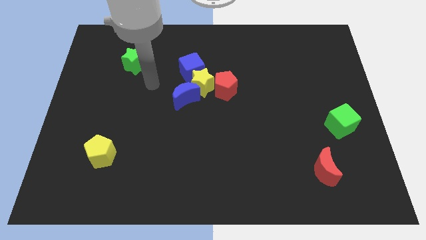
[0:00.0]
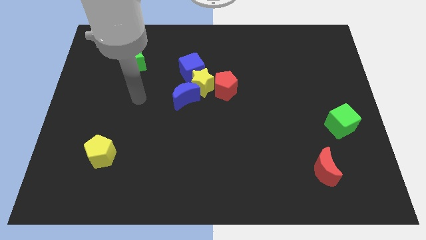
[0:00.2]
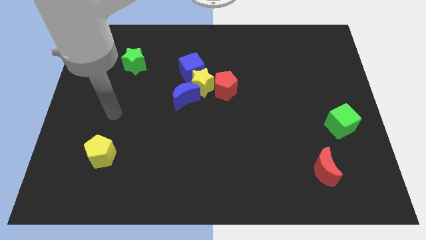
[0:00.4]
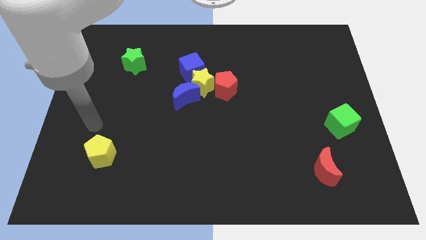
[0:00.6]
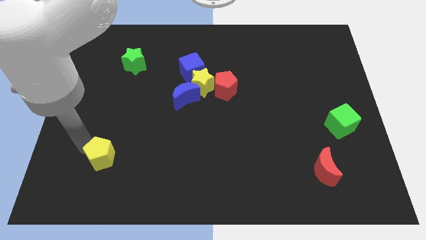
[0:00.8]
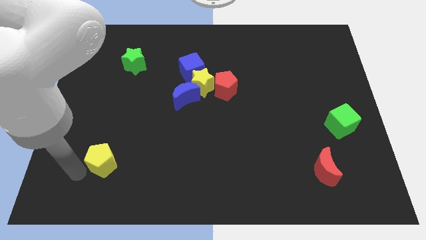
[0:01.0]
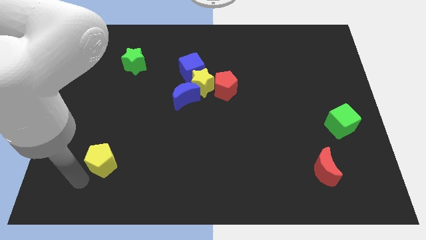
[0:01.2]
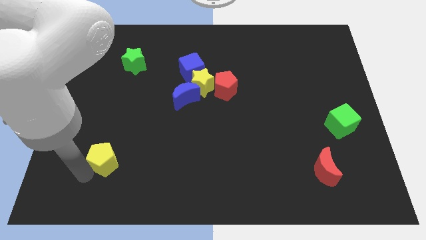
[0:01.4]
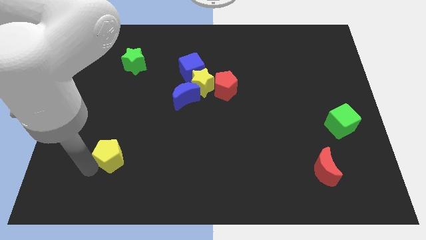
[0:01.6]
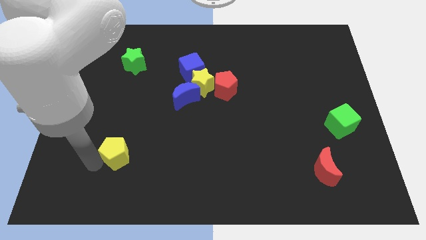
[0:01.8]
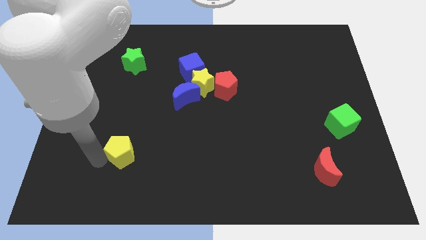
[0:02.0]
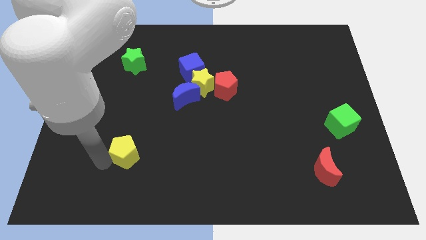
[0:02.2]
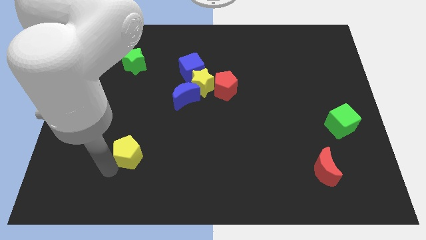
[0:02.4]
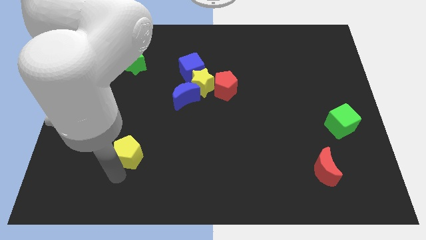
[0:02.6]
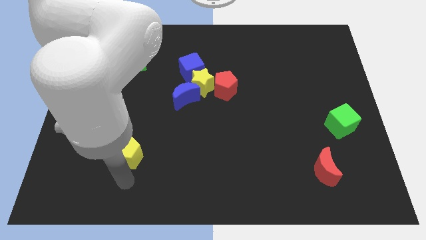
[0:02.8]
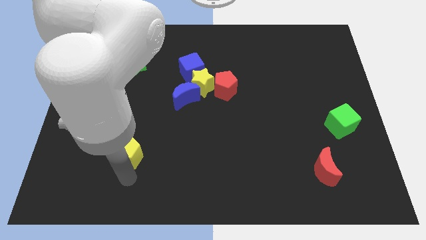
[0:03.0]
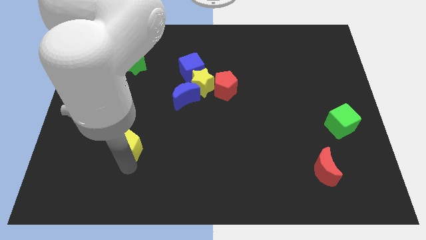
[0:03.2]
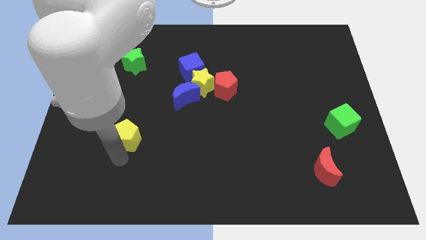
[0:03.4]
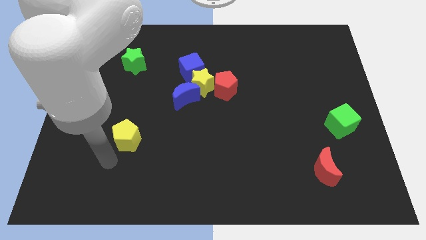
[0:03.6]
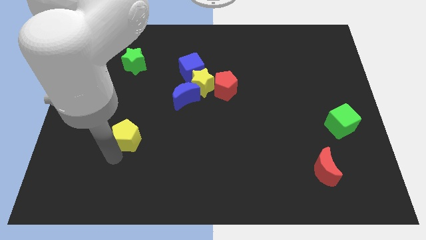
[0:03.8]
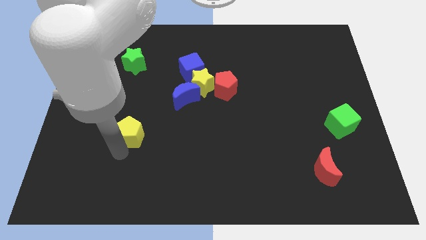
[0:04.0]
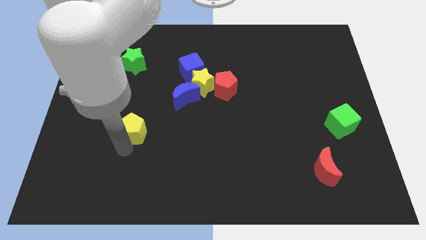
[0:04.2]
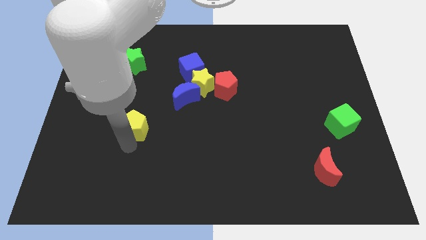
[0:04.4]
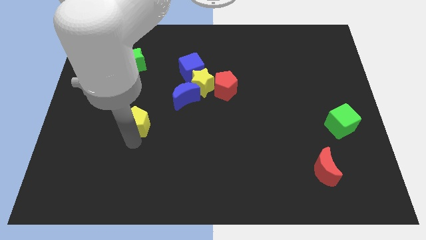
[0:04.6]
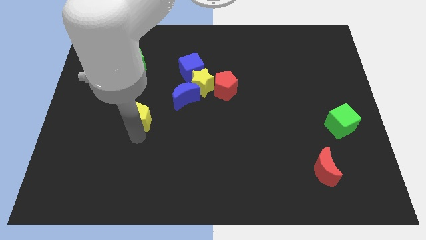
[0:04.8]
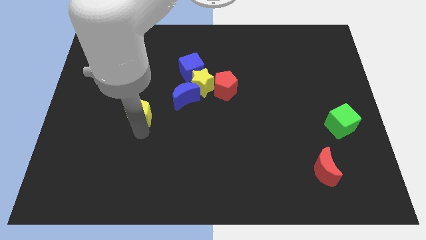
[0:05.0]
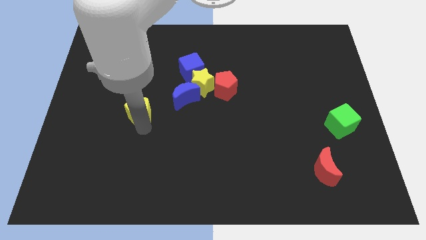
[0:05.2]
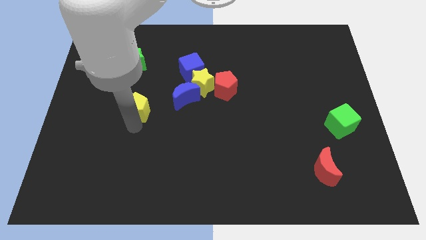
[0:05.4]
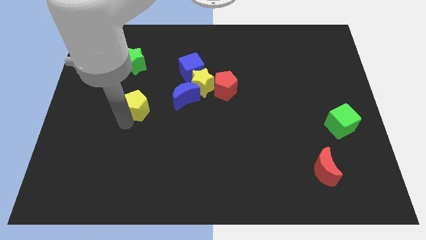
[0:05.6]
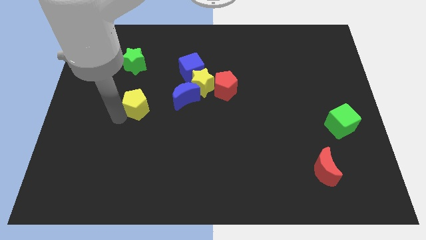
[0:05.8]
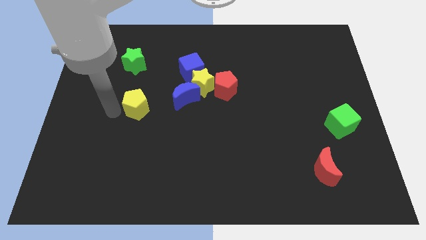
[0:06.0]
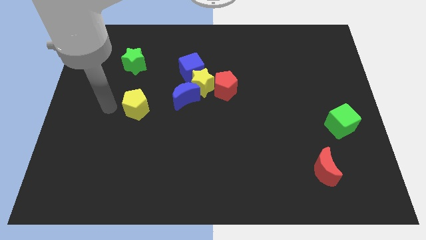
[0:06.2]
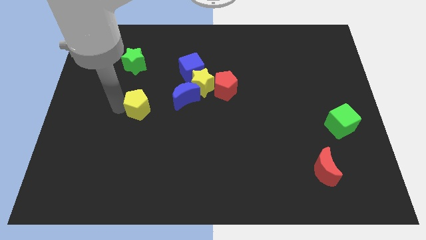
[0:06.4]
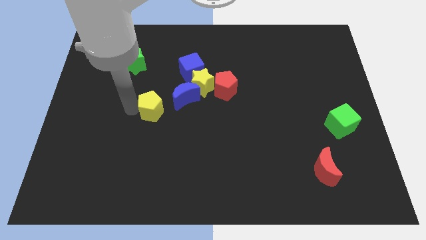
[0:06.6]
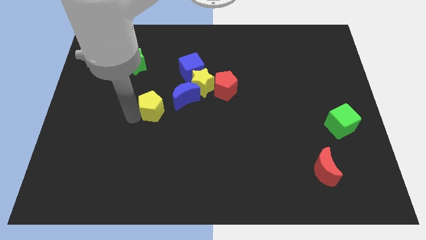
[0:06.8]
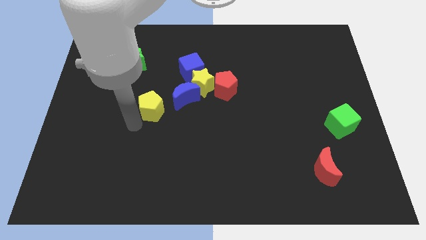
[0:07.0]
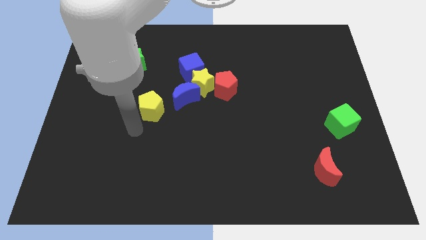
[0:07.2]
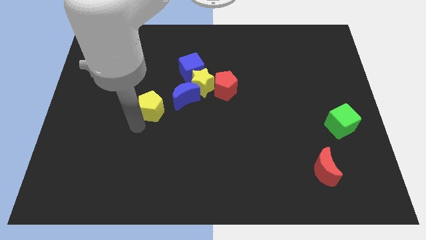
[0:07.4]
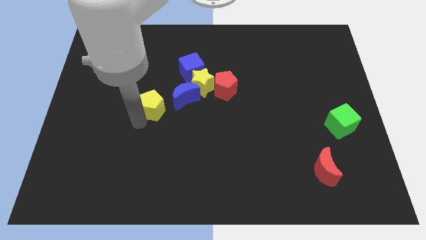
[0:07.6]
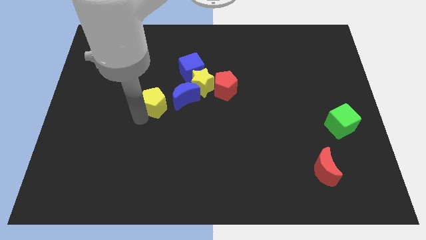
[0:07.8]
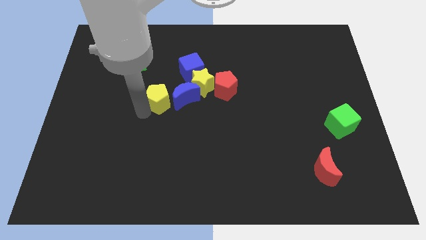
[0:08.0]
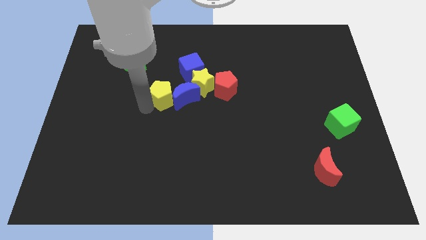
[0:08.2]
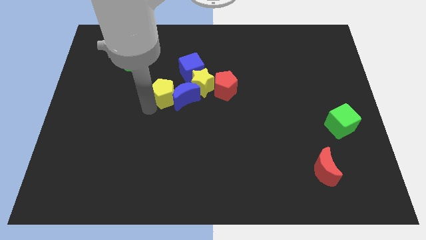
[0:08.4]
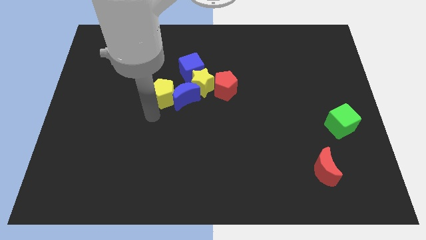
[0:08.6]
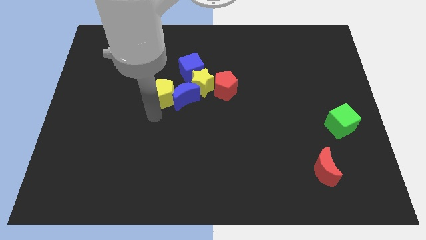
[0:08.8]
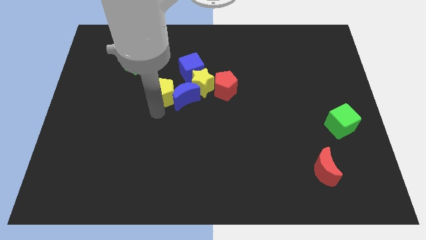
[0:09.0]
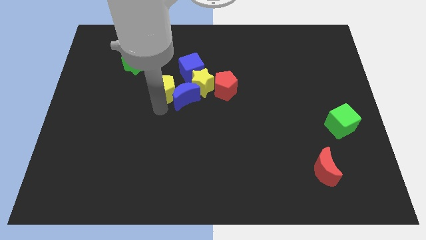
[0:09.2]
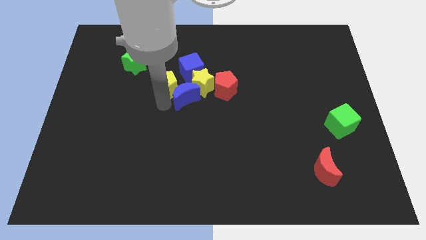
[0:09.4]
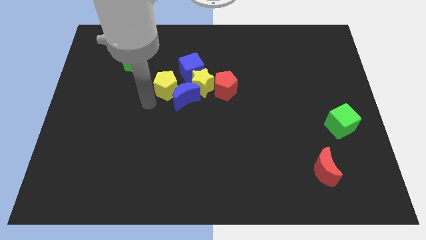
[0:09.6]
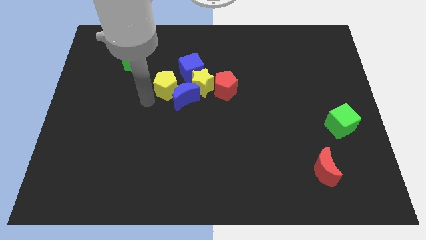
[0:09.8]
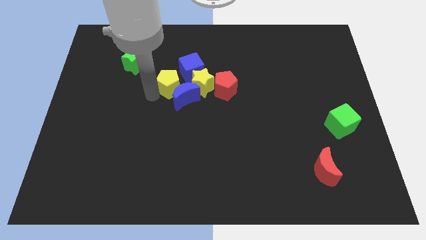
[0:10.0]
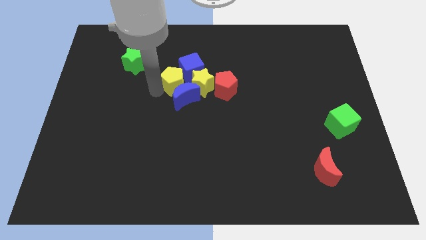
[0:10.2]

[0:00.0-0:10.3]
put the yellow pentagon towards the blue cube

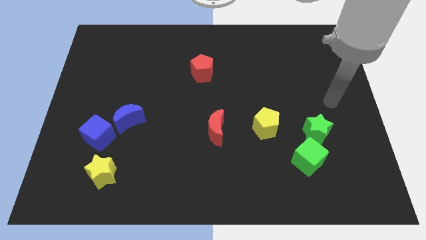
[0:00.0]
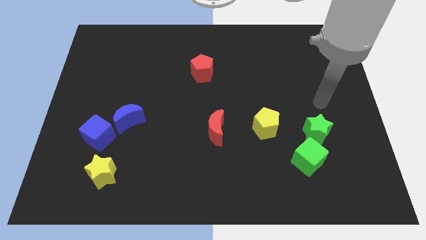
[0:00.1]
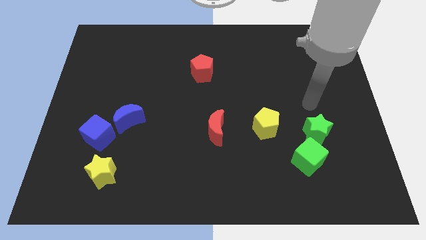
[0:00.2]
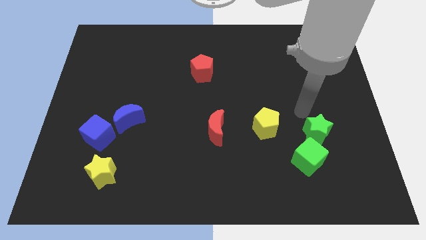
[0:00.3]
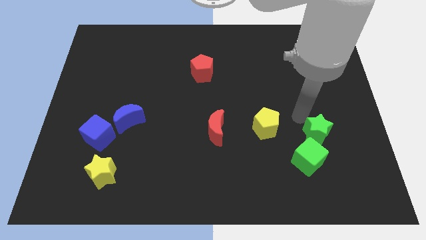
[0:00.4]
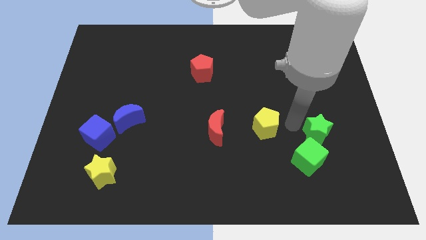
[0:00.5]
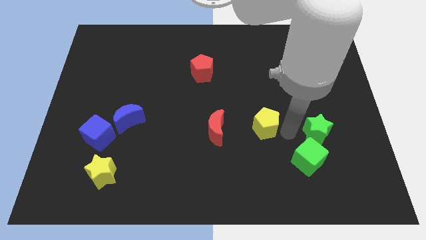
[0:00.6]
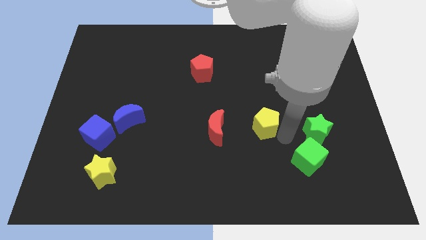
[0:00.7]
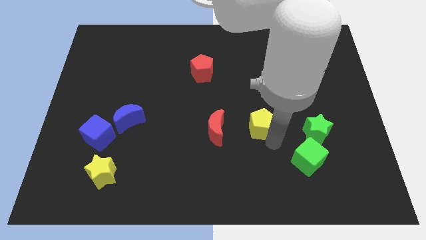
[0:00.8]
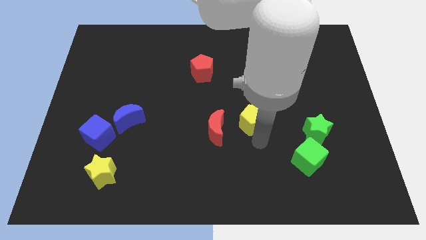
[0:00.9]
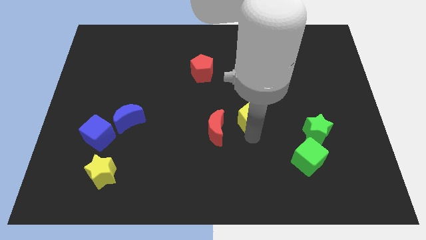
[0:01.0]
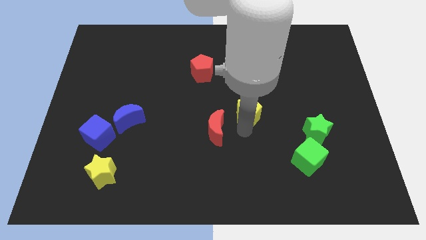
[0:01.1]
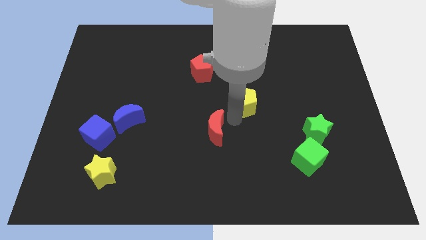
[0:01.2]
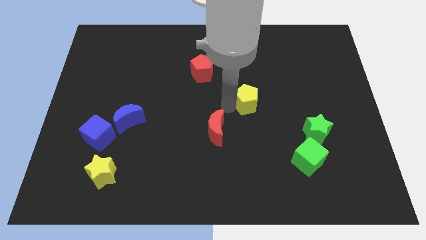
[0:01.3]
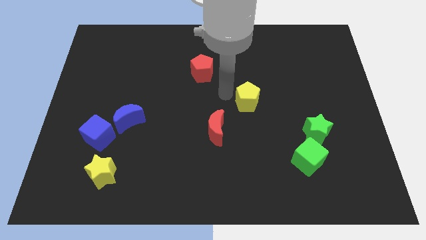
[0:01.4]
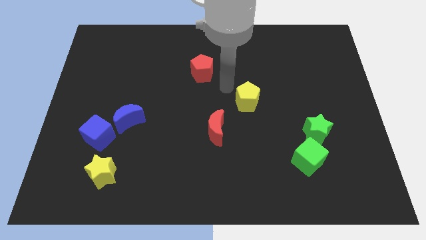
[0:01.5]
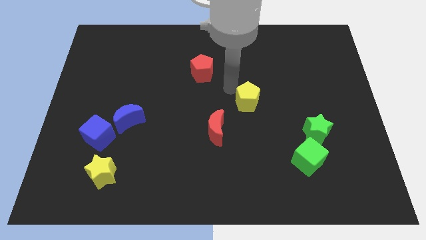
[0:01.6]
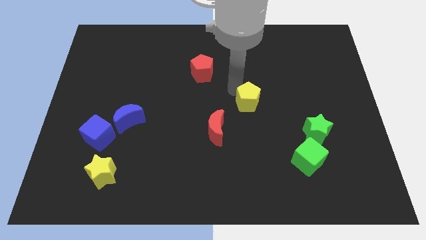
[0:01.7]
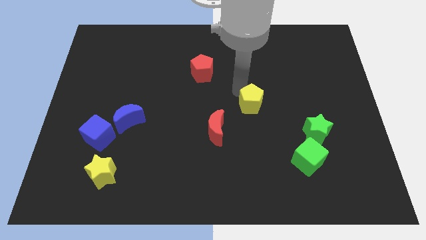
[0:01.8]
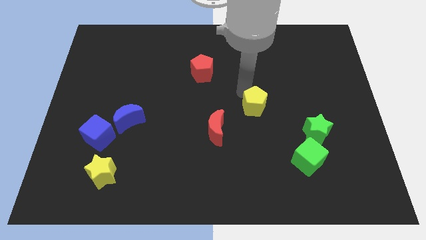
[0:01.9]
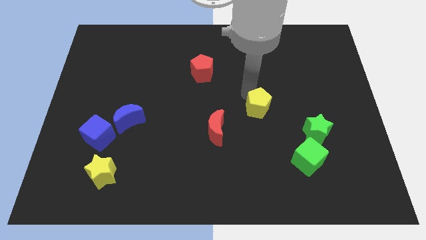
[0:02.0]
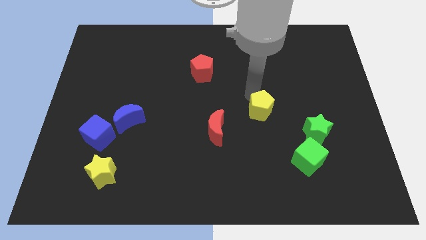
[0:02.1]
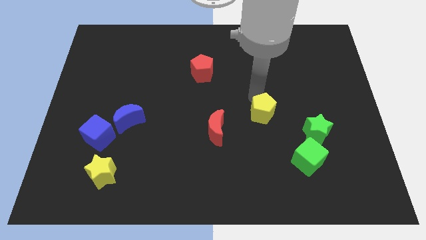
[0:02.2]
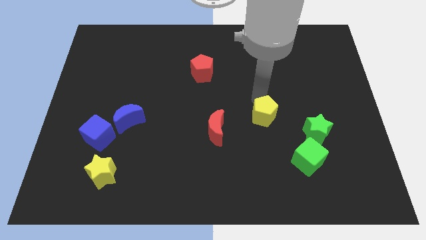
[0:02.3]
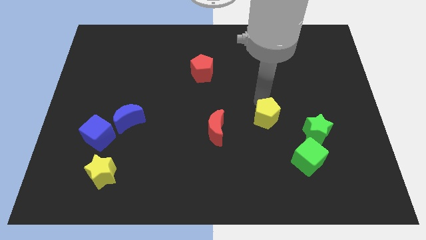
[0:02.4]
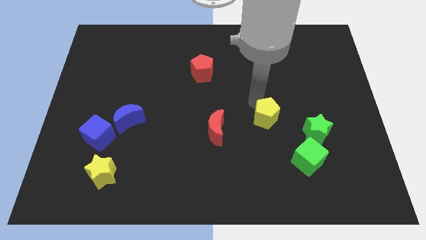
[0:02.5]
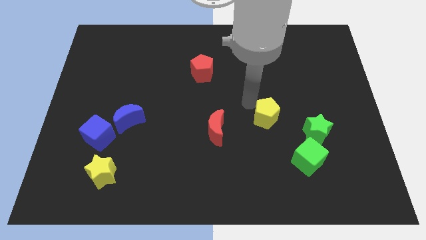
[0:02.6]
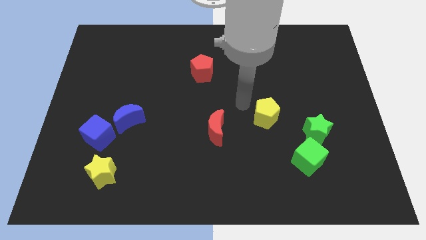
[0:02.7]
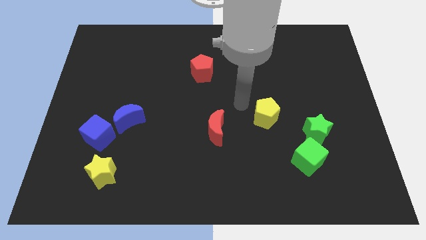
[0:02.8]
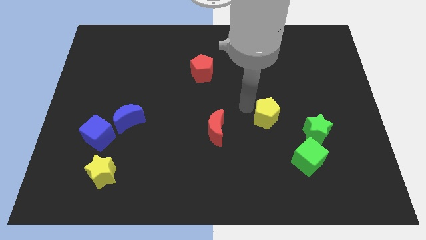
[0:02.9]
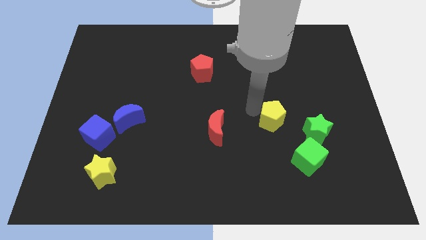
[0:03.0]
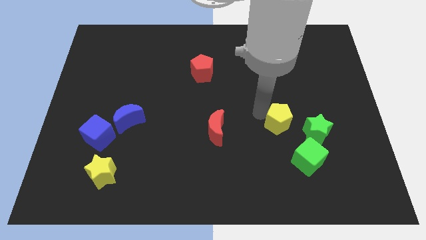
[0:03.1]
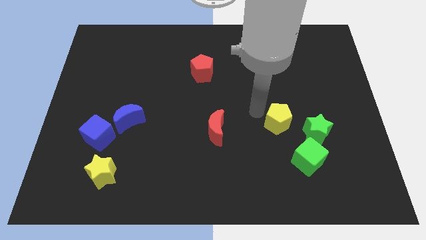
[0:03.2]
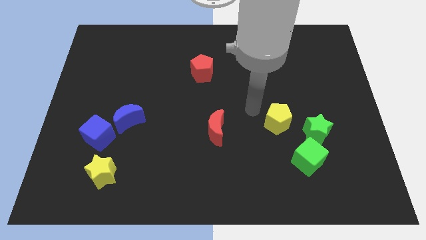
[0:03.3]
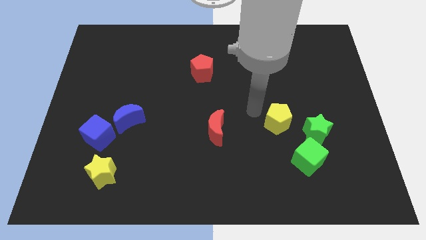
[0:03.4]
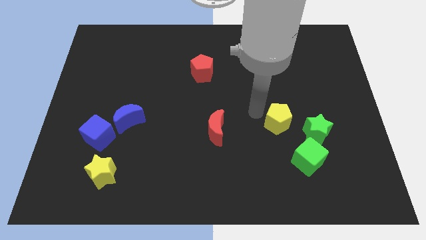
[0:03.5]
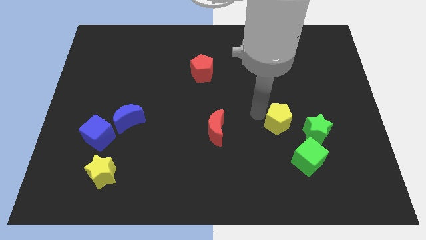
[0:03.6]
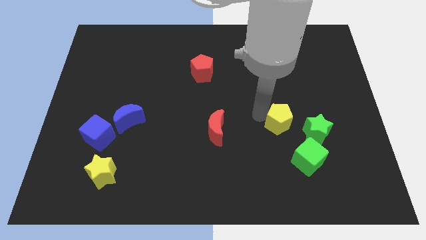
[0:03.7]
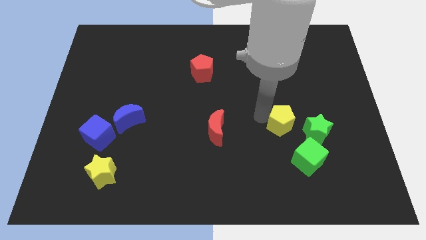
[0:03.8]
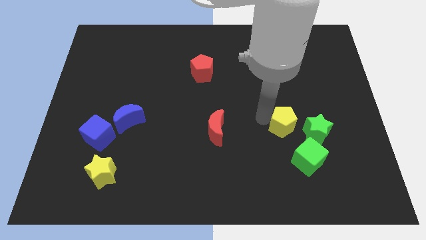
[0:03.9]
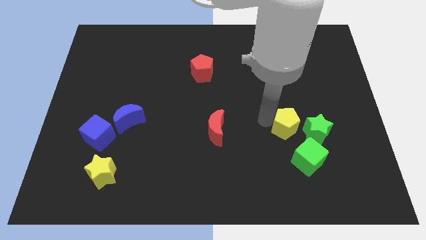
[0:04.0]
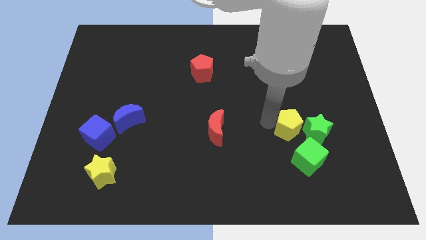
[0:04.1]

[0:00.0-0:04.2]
put the yellow pentagon to the green star
